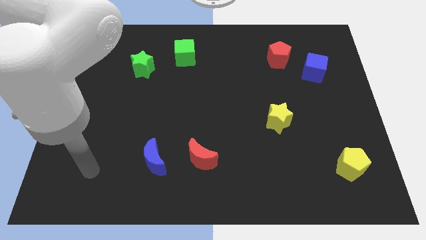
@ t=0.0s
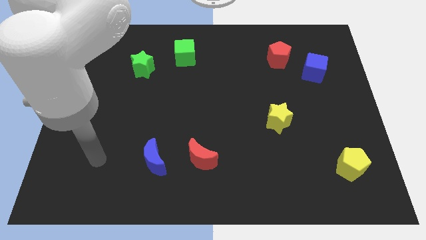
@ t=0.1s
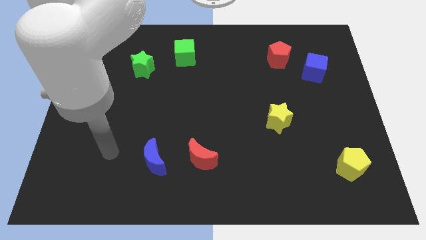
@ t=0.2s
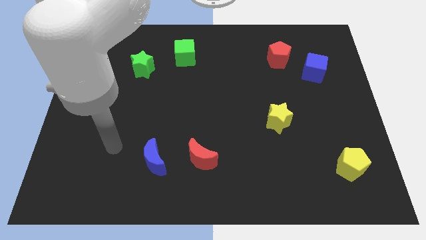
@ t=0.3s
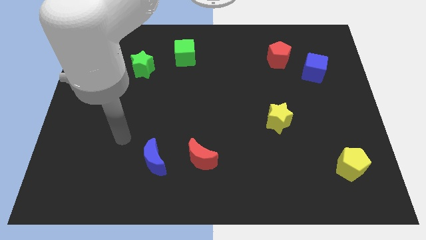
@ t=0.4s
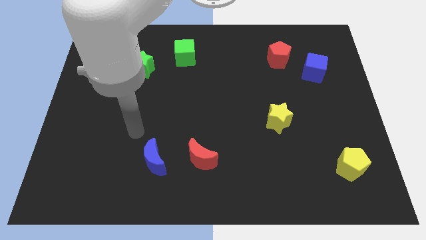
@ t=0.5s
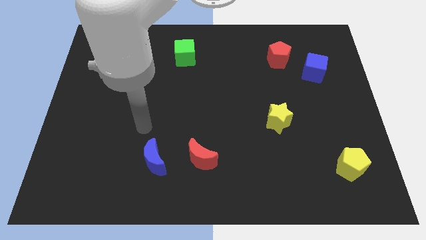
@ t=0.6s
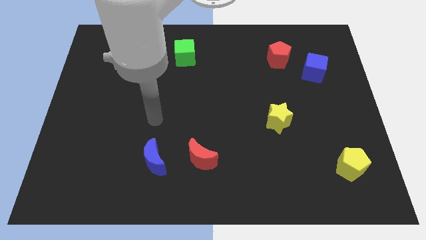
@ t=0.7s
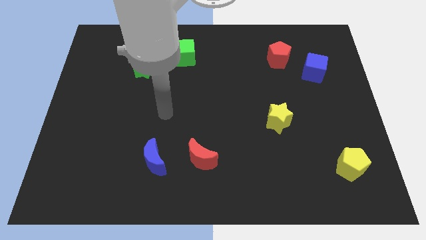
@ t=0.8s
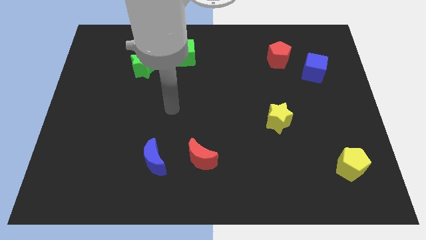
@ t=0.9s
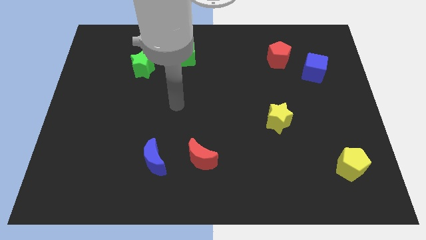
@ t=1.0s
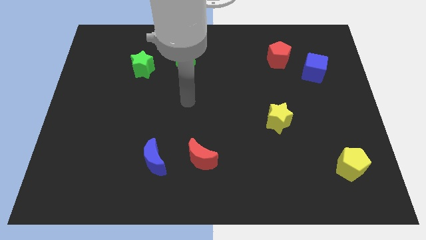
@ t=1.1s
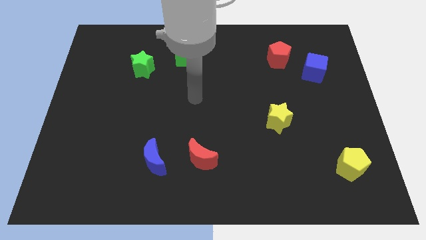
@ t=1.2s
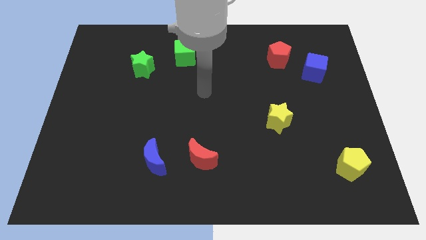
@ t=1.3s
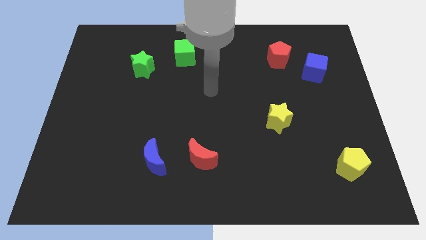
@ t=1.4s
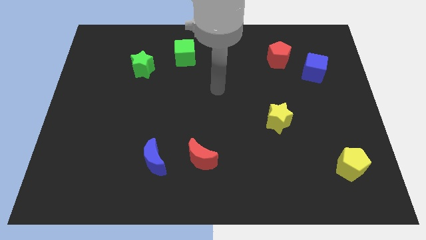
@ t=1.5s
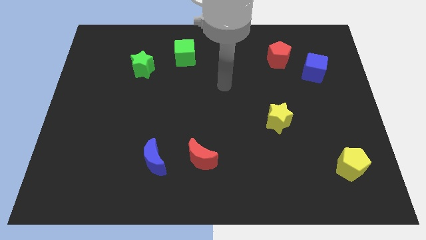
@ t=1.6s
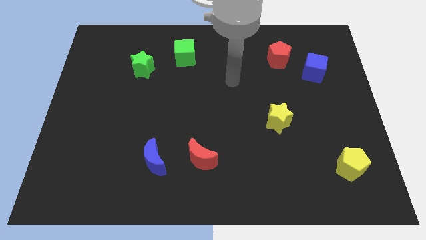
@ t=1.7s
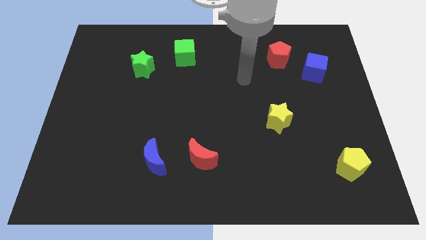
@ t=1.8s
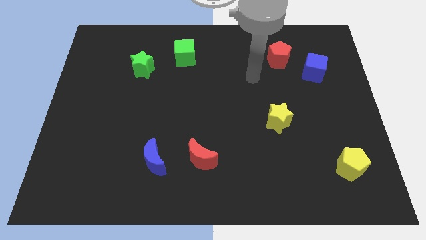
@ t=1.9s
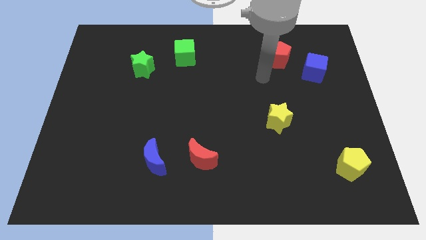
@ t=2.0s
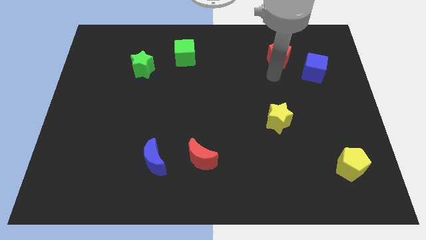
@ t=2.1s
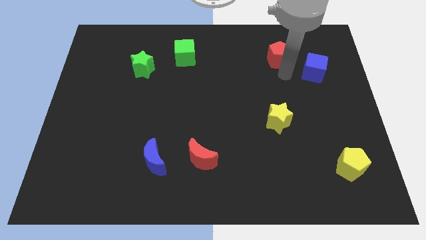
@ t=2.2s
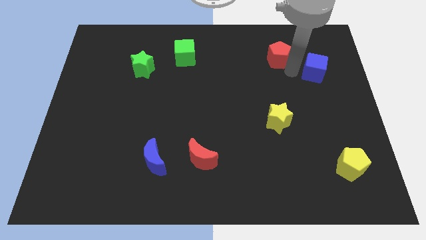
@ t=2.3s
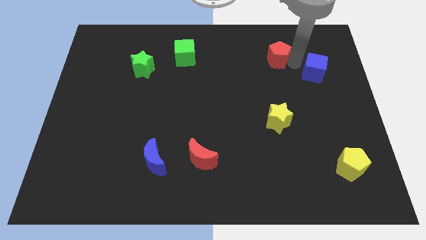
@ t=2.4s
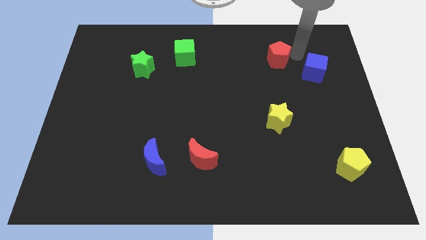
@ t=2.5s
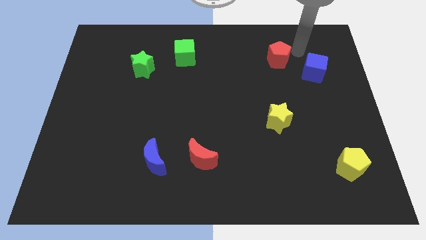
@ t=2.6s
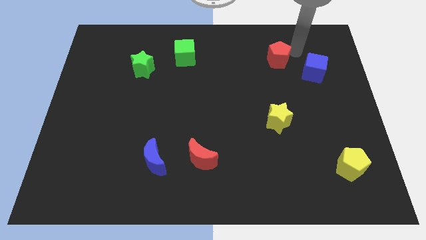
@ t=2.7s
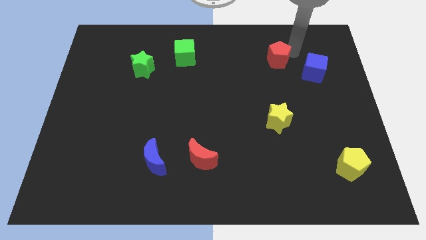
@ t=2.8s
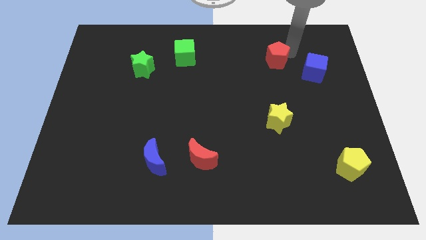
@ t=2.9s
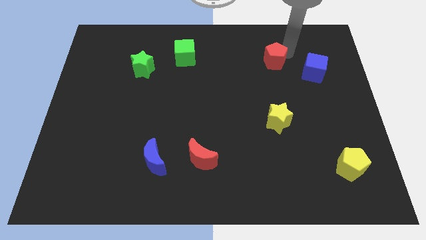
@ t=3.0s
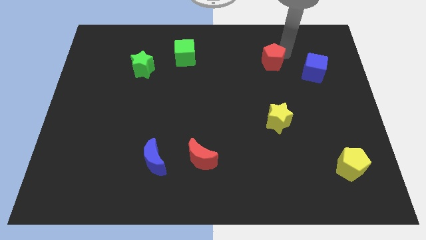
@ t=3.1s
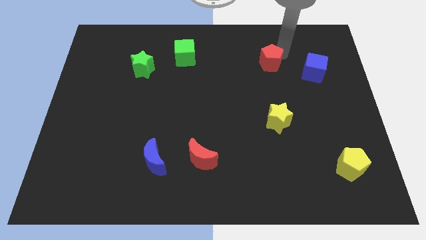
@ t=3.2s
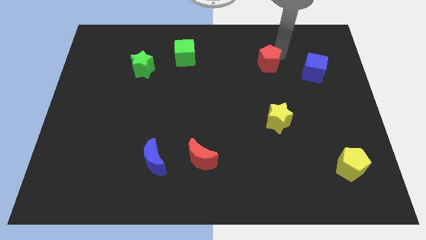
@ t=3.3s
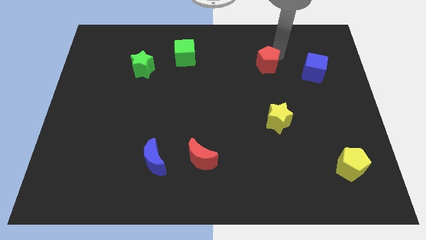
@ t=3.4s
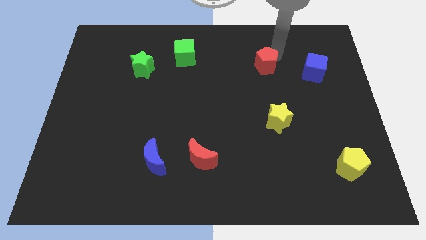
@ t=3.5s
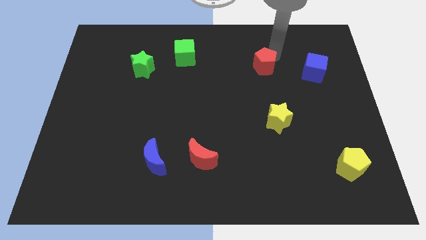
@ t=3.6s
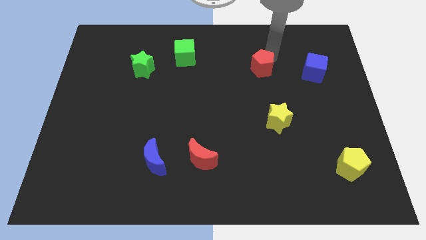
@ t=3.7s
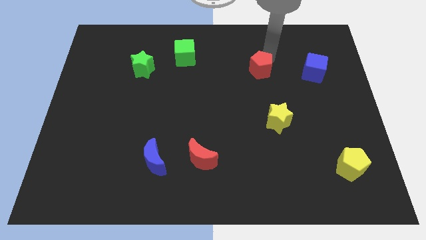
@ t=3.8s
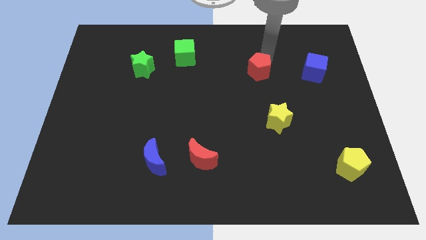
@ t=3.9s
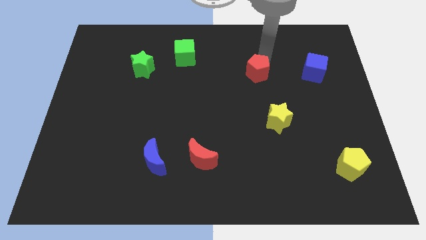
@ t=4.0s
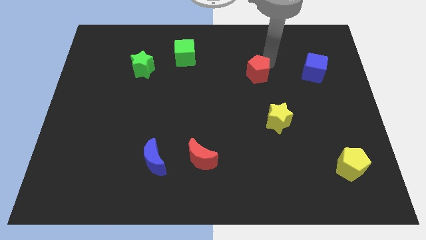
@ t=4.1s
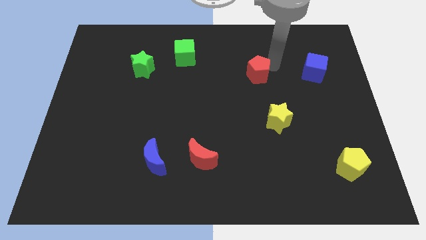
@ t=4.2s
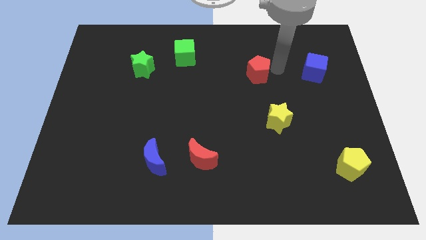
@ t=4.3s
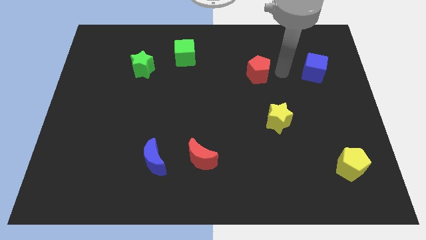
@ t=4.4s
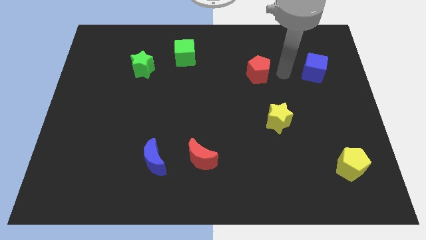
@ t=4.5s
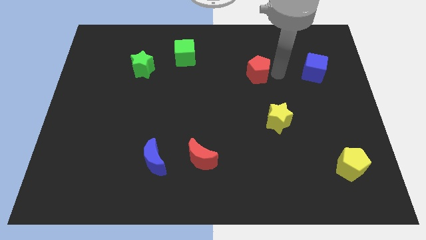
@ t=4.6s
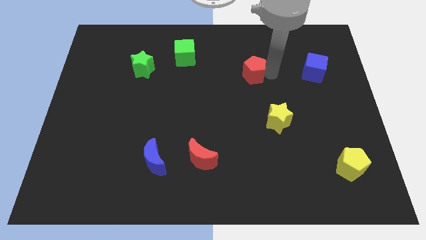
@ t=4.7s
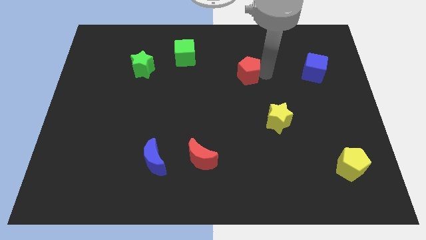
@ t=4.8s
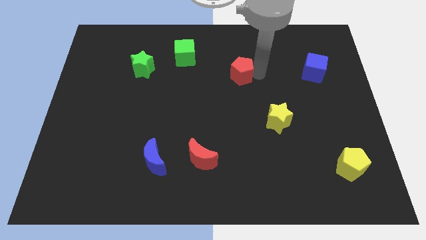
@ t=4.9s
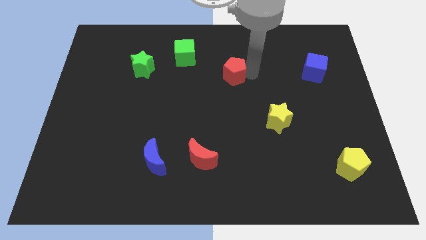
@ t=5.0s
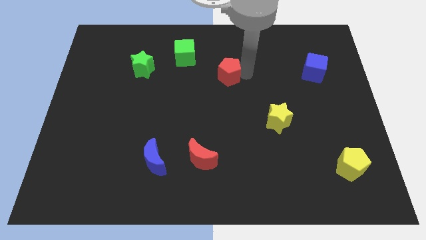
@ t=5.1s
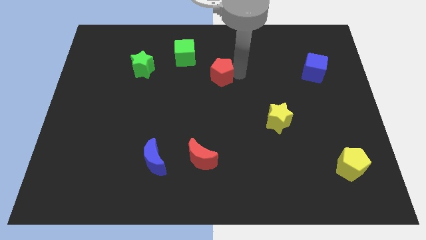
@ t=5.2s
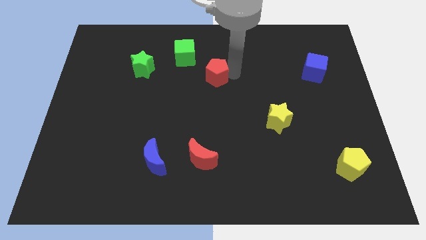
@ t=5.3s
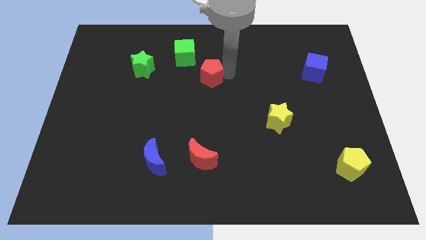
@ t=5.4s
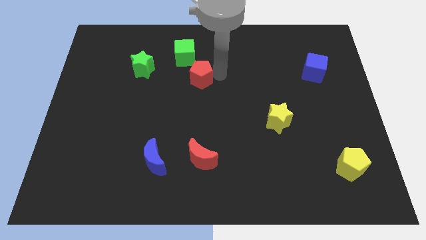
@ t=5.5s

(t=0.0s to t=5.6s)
move the red pentagon below the green cube

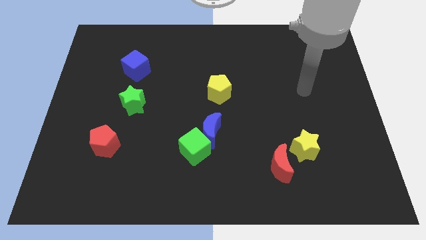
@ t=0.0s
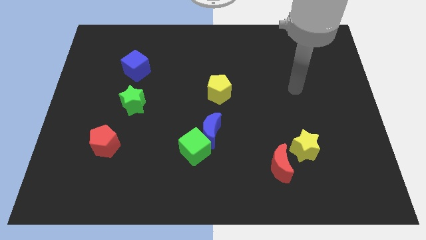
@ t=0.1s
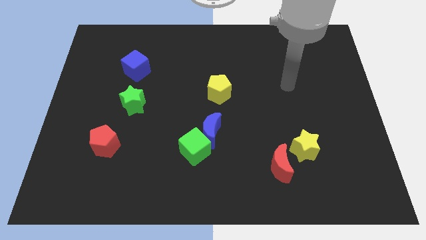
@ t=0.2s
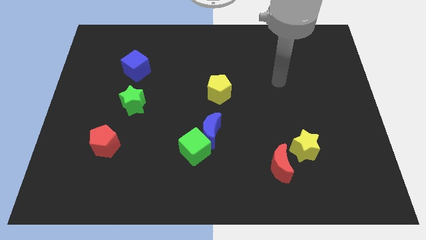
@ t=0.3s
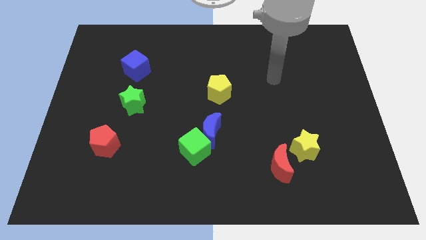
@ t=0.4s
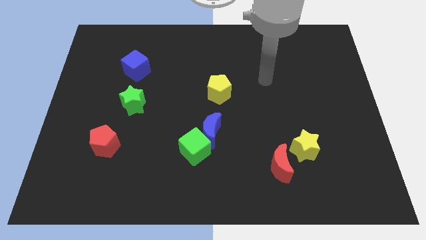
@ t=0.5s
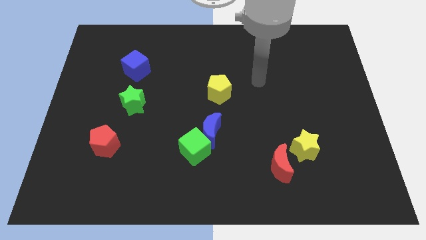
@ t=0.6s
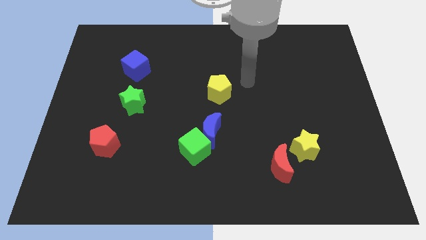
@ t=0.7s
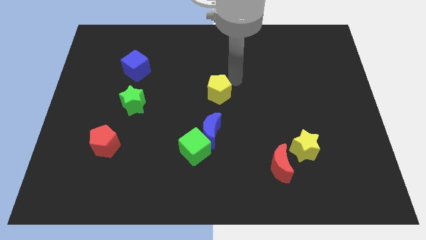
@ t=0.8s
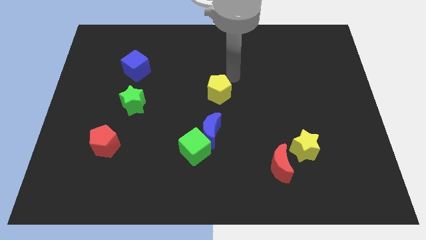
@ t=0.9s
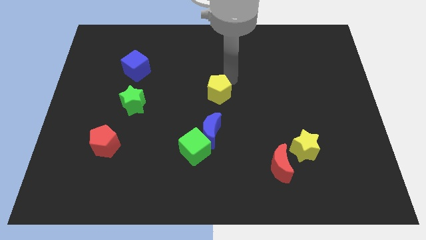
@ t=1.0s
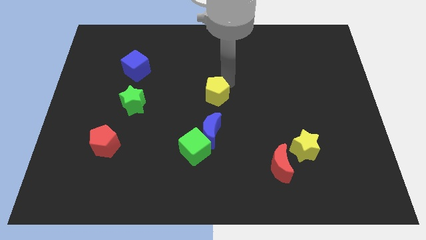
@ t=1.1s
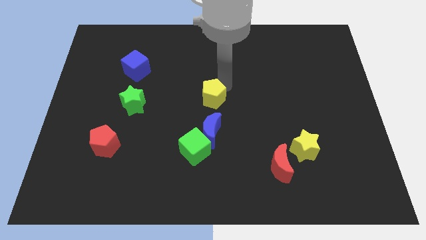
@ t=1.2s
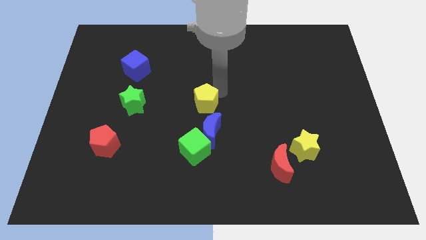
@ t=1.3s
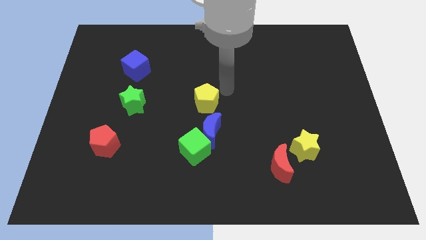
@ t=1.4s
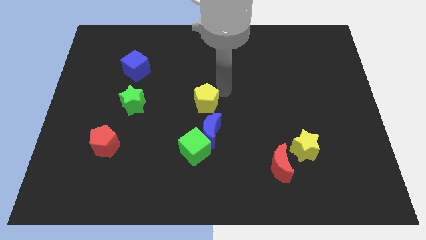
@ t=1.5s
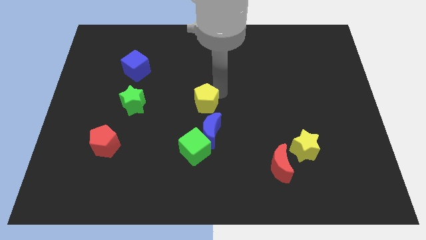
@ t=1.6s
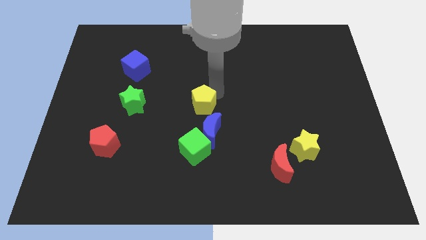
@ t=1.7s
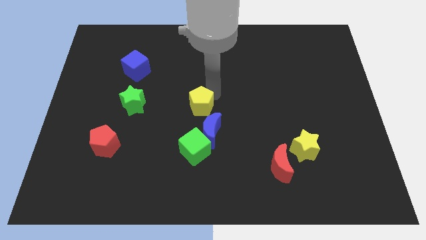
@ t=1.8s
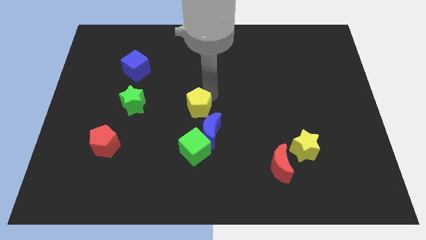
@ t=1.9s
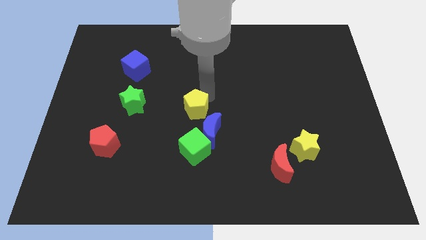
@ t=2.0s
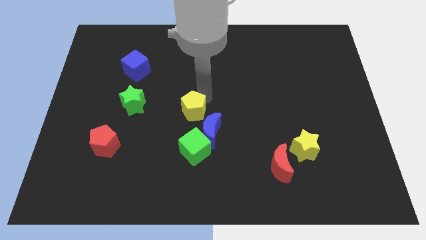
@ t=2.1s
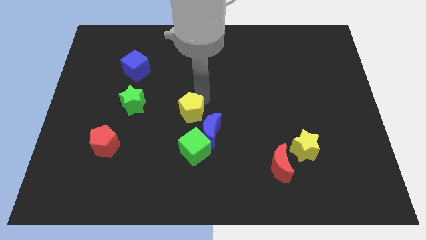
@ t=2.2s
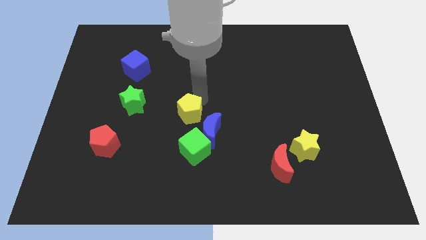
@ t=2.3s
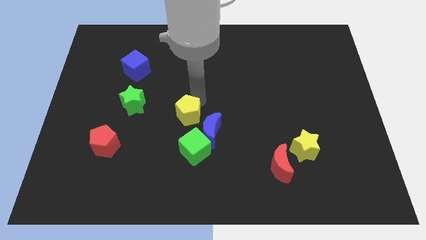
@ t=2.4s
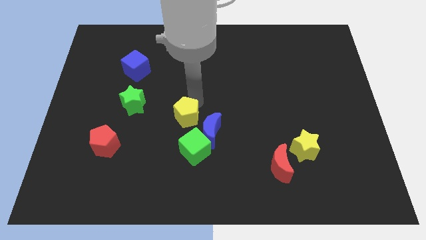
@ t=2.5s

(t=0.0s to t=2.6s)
move the yellow pentagon to the left side of the blue moon
